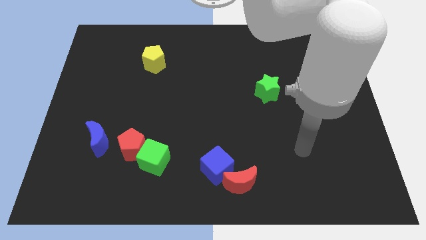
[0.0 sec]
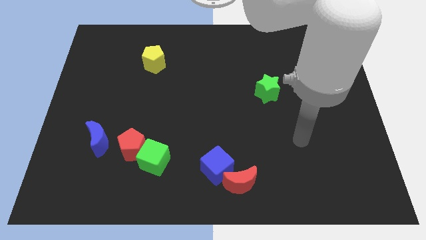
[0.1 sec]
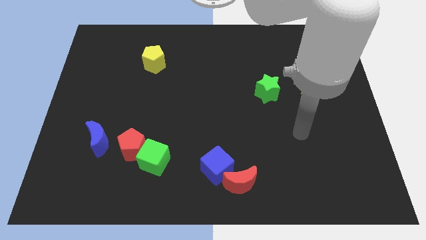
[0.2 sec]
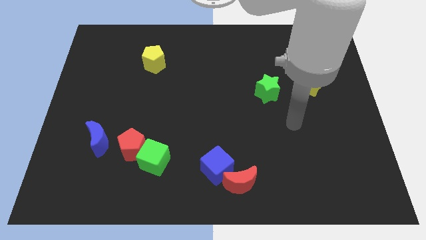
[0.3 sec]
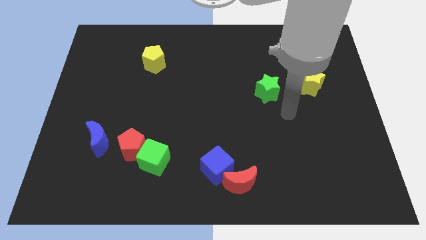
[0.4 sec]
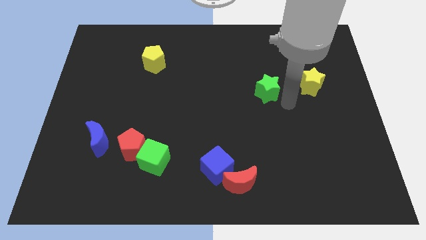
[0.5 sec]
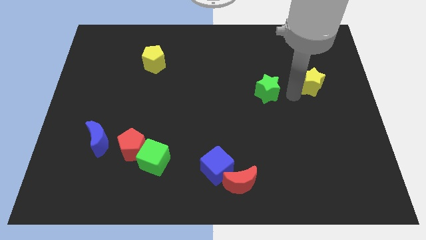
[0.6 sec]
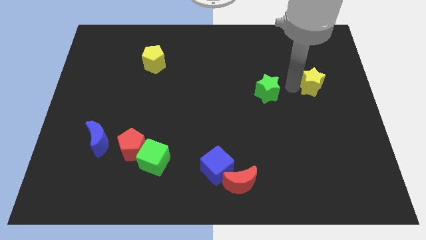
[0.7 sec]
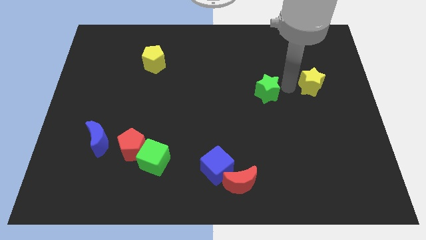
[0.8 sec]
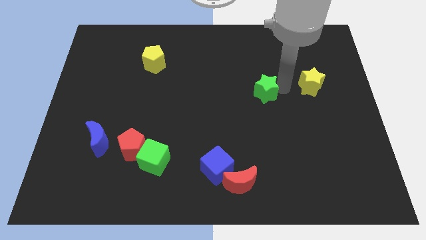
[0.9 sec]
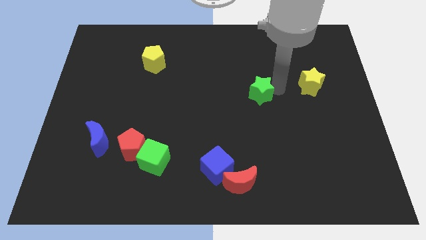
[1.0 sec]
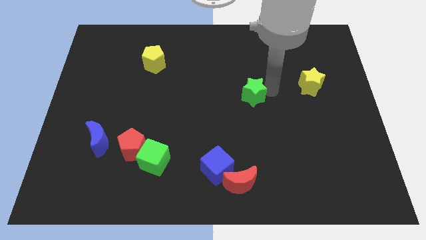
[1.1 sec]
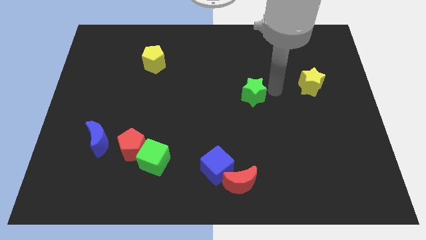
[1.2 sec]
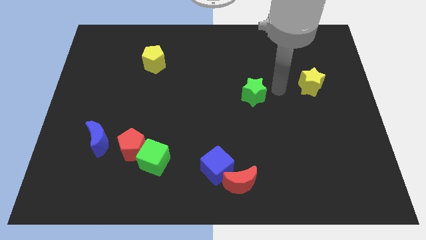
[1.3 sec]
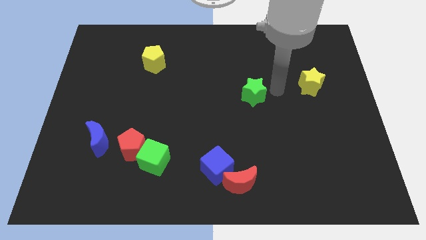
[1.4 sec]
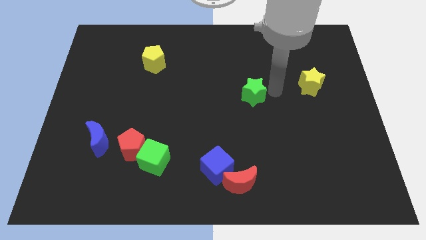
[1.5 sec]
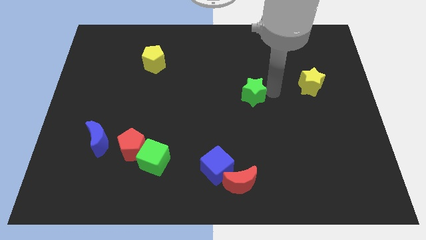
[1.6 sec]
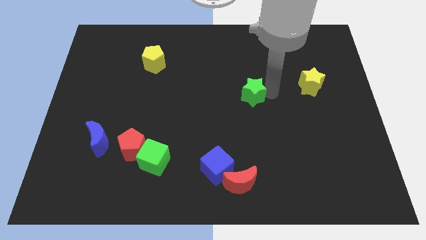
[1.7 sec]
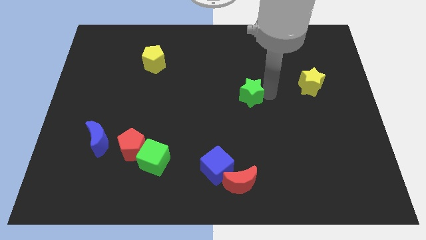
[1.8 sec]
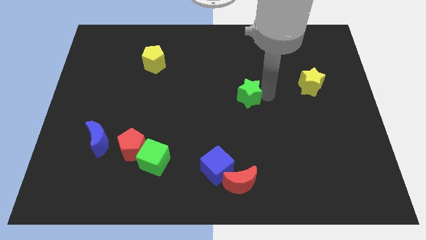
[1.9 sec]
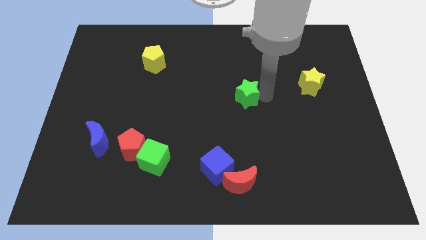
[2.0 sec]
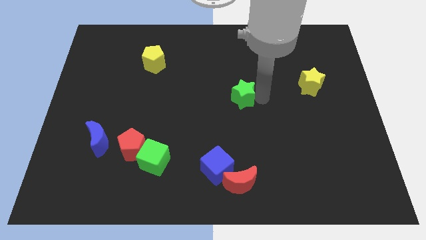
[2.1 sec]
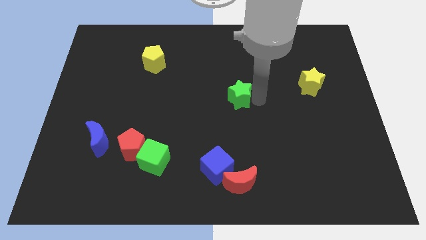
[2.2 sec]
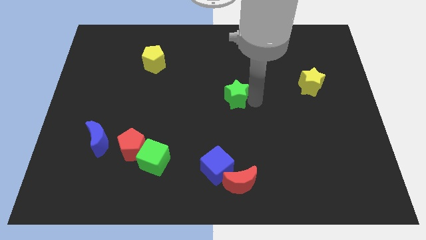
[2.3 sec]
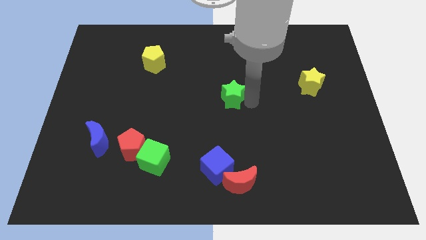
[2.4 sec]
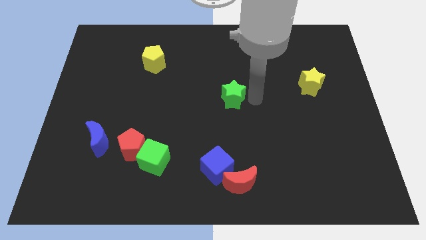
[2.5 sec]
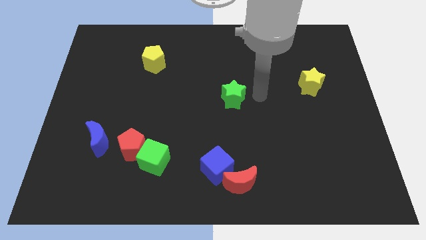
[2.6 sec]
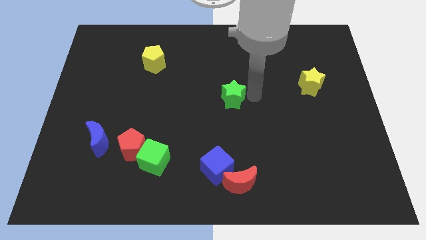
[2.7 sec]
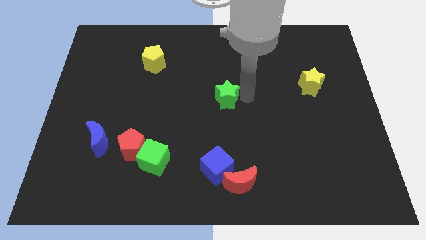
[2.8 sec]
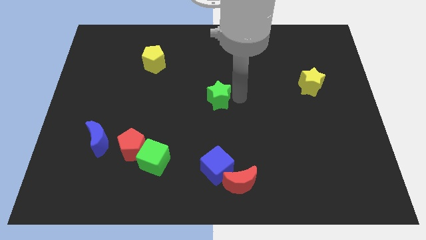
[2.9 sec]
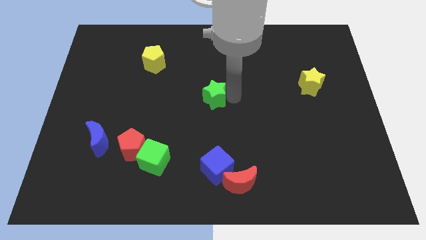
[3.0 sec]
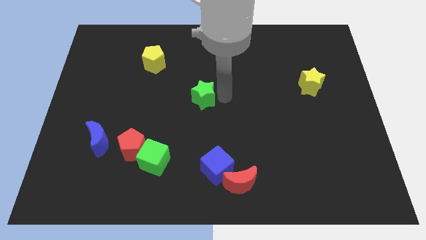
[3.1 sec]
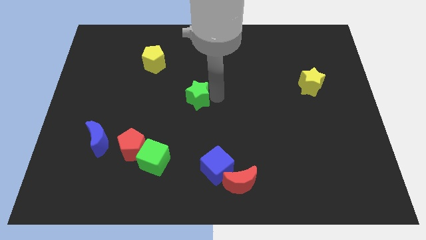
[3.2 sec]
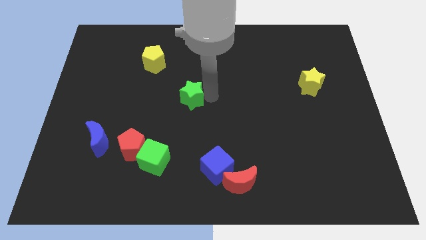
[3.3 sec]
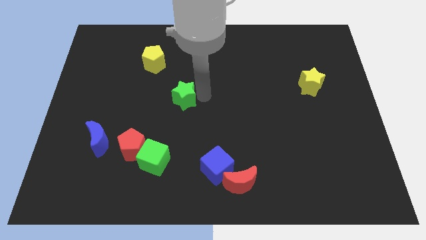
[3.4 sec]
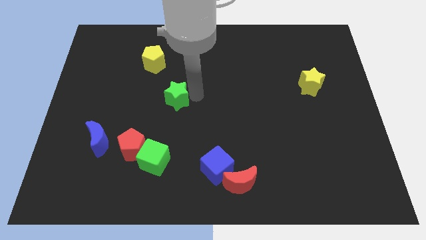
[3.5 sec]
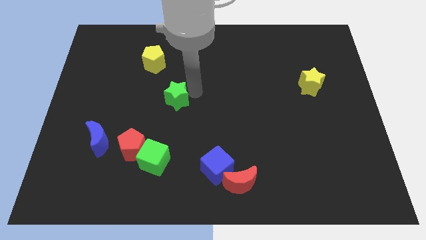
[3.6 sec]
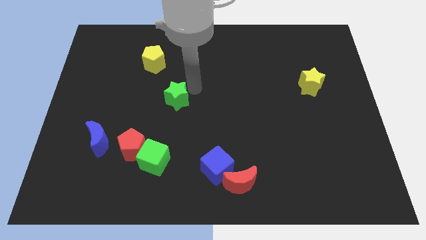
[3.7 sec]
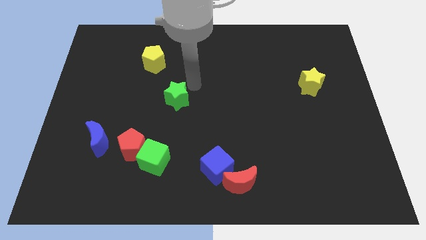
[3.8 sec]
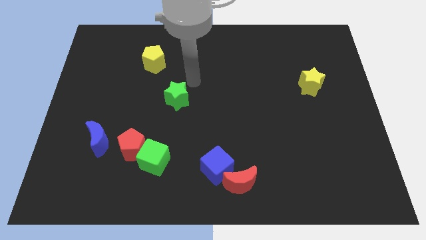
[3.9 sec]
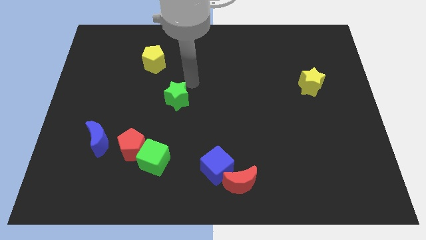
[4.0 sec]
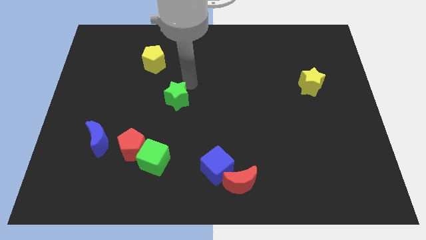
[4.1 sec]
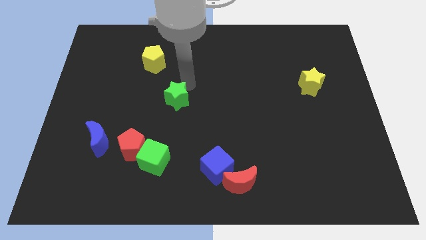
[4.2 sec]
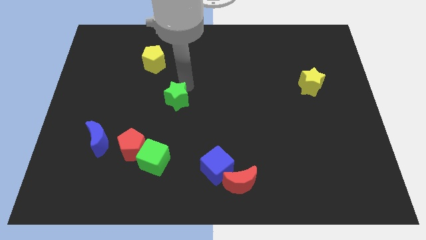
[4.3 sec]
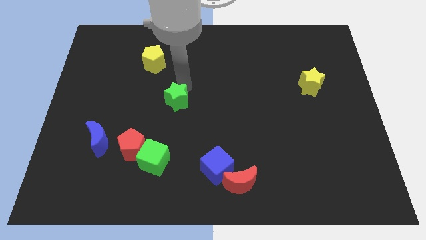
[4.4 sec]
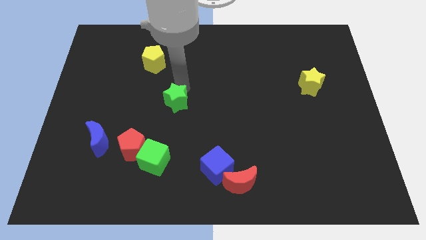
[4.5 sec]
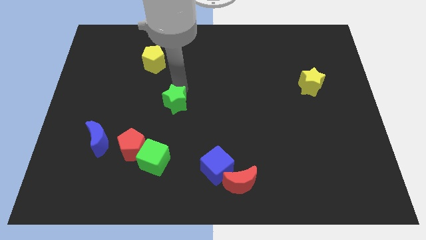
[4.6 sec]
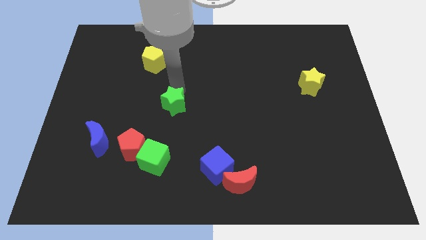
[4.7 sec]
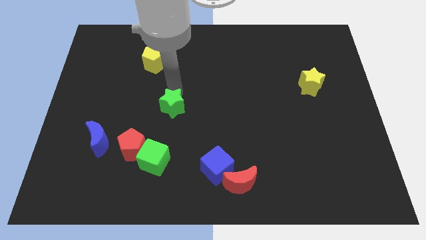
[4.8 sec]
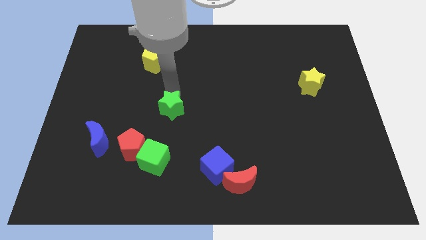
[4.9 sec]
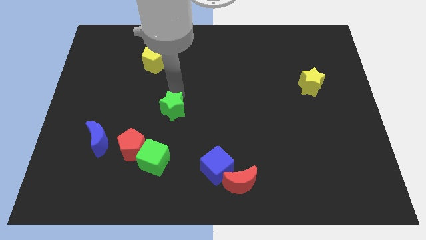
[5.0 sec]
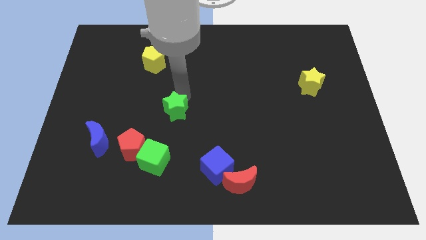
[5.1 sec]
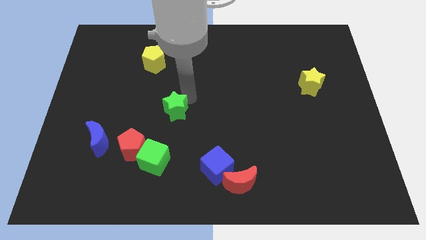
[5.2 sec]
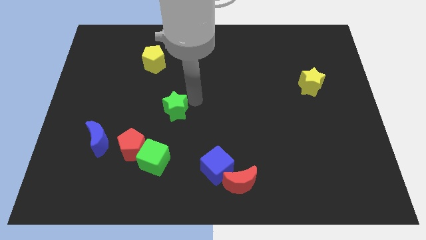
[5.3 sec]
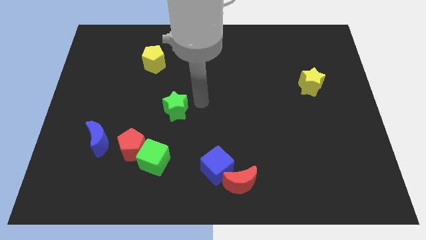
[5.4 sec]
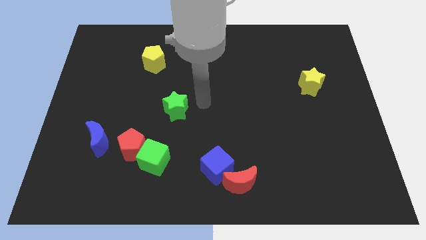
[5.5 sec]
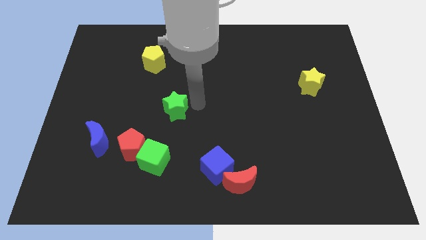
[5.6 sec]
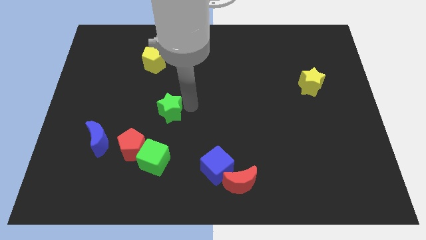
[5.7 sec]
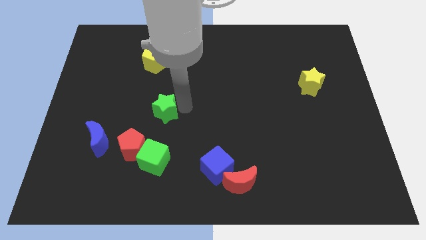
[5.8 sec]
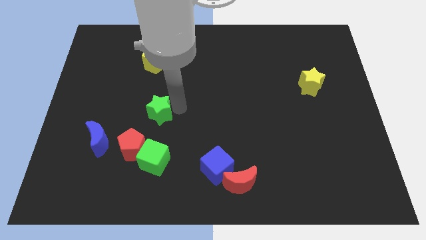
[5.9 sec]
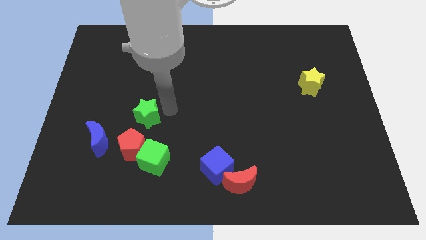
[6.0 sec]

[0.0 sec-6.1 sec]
put the green star to the top right of the blue moon

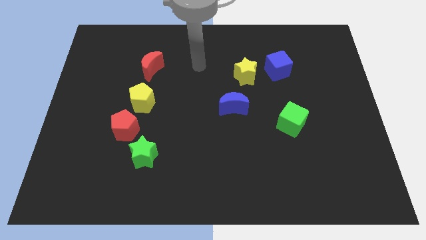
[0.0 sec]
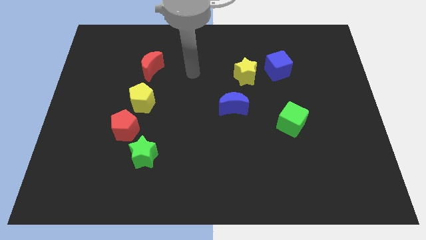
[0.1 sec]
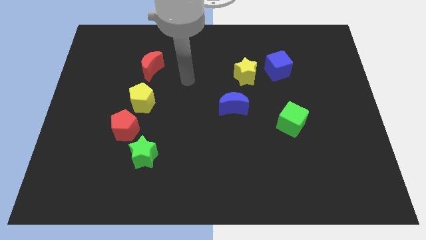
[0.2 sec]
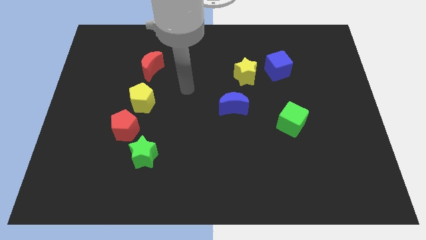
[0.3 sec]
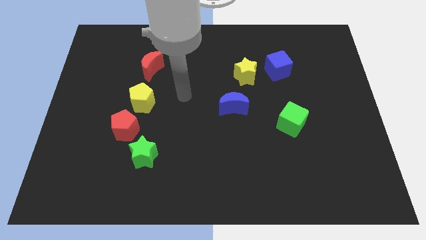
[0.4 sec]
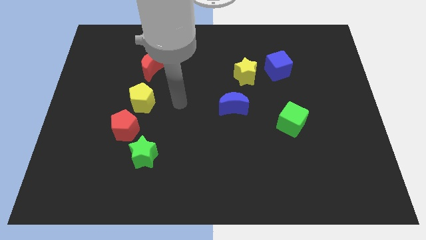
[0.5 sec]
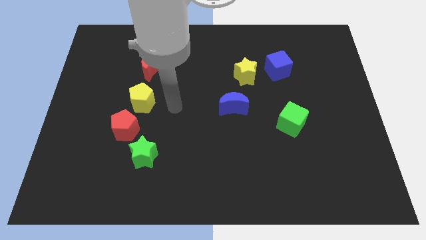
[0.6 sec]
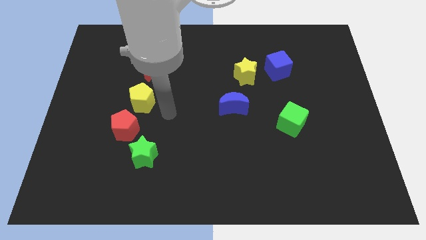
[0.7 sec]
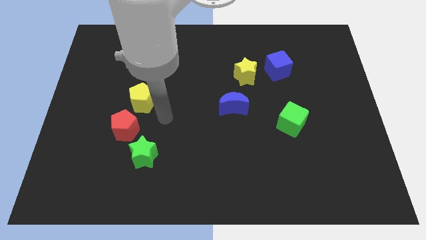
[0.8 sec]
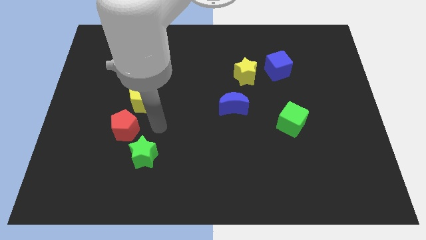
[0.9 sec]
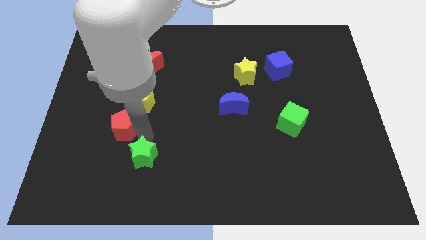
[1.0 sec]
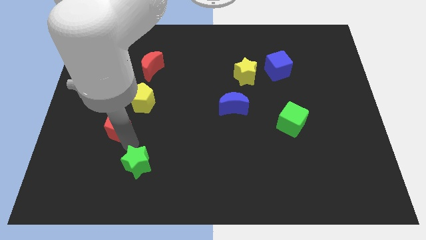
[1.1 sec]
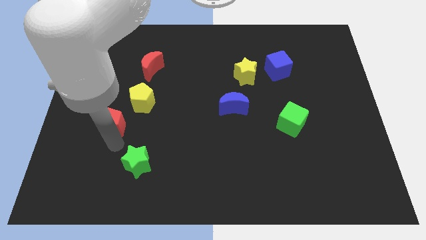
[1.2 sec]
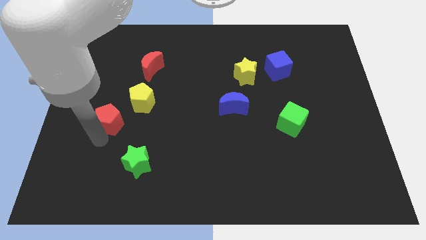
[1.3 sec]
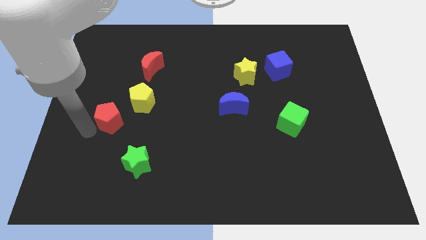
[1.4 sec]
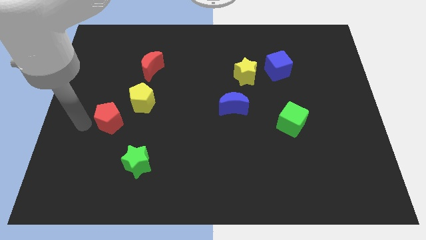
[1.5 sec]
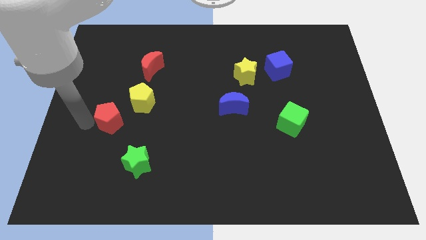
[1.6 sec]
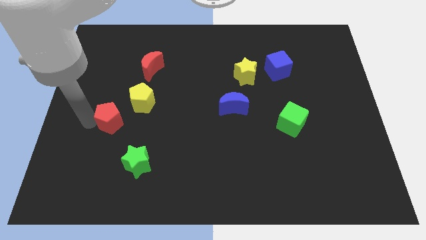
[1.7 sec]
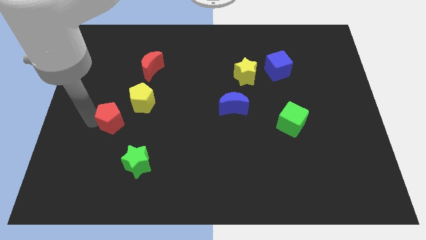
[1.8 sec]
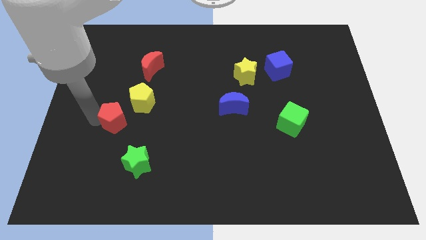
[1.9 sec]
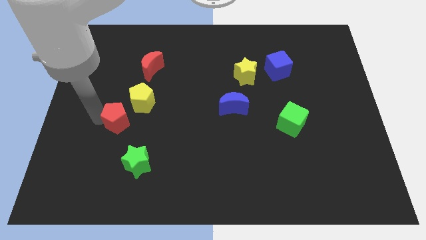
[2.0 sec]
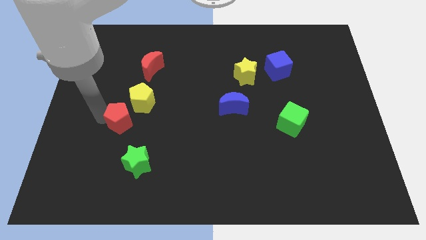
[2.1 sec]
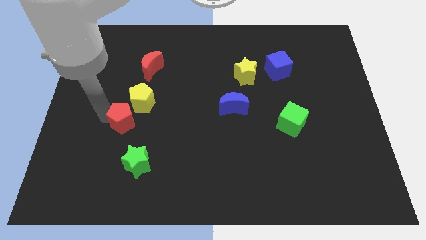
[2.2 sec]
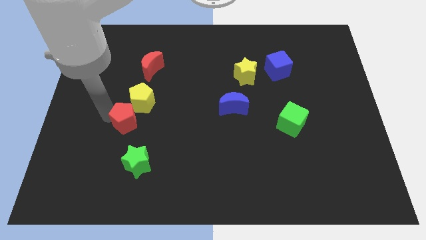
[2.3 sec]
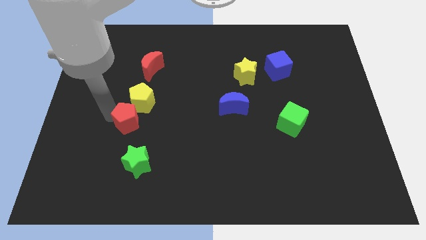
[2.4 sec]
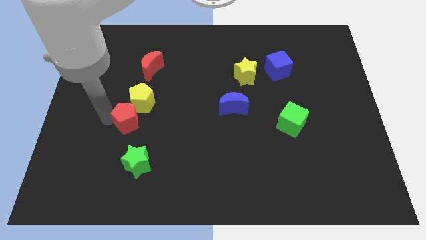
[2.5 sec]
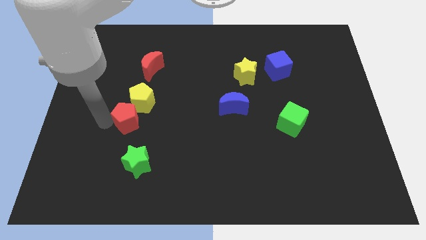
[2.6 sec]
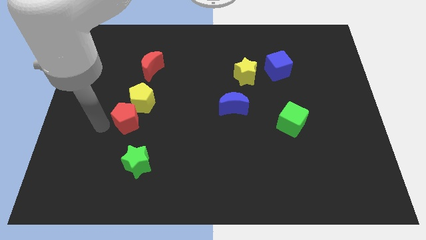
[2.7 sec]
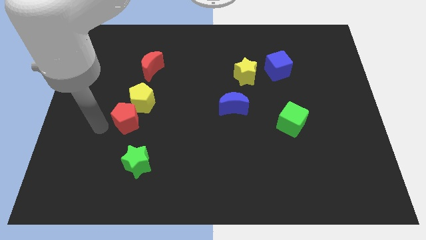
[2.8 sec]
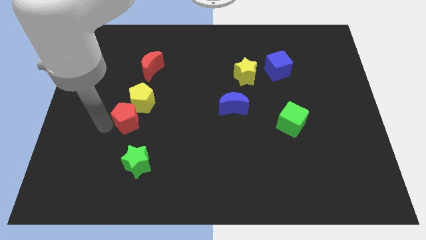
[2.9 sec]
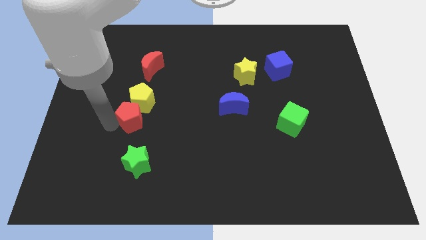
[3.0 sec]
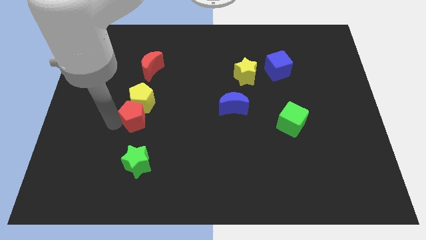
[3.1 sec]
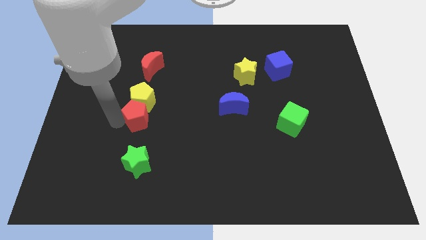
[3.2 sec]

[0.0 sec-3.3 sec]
slide the red pentagon to the bottom of the red moon
